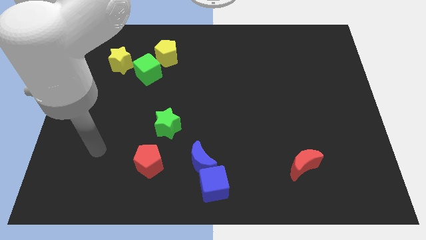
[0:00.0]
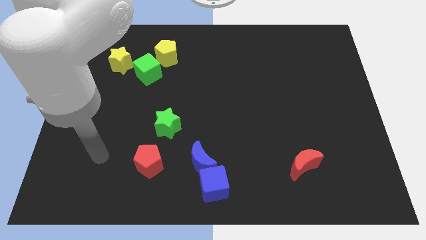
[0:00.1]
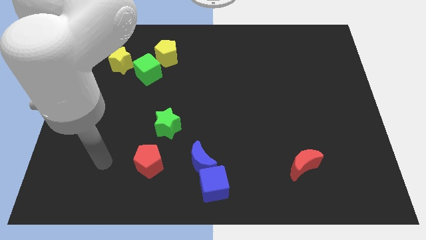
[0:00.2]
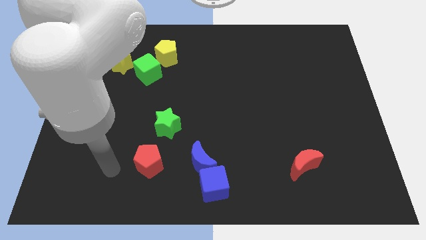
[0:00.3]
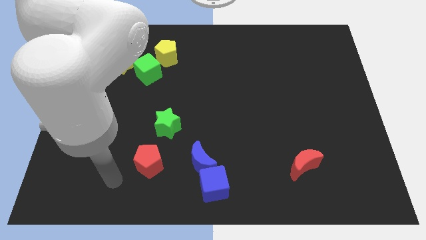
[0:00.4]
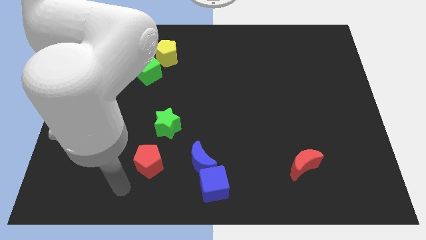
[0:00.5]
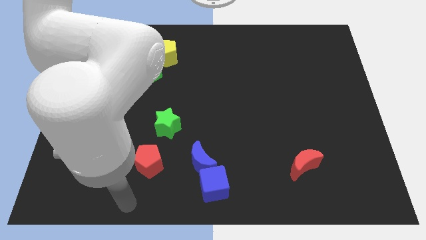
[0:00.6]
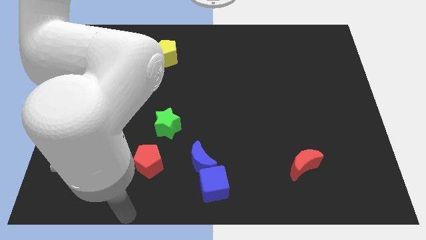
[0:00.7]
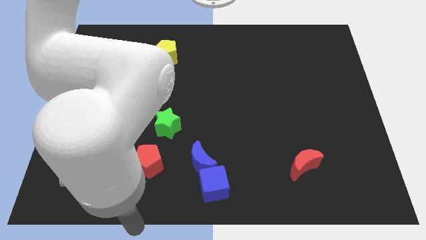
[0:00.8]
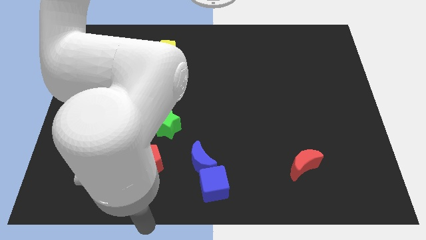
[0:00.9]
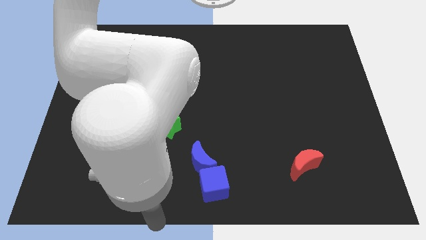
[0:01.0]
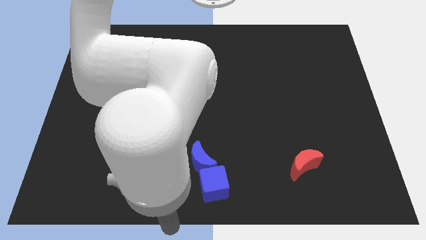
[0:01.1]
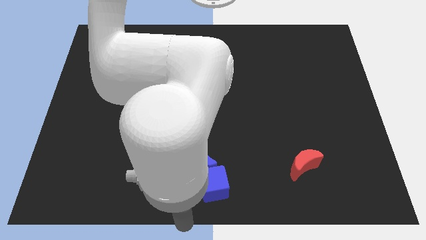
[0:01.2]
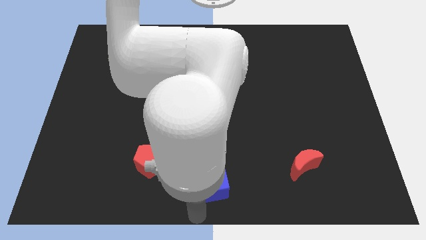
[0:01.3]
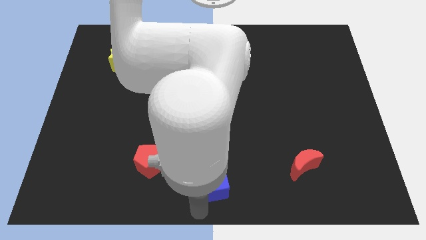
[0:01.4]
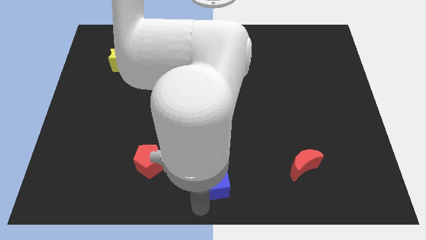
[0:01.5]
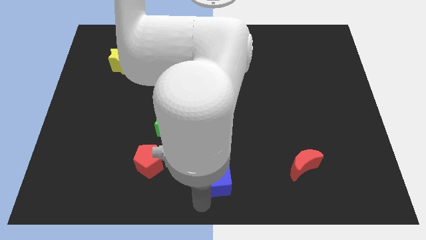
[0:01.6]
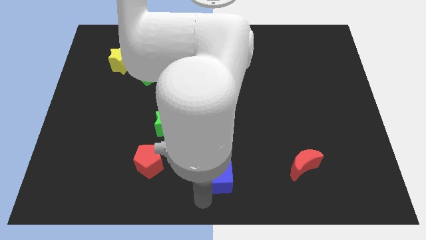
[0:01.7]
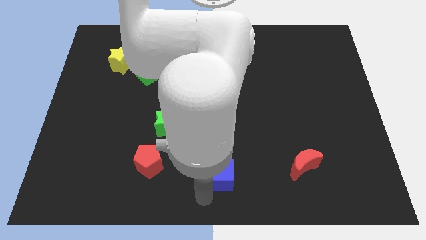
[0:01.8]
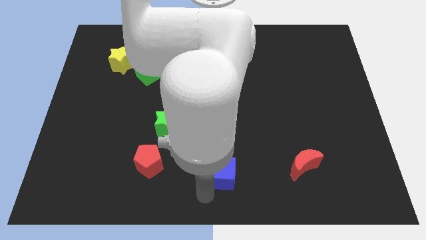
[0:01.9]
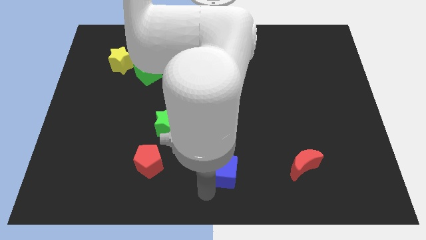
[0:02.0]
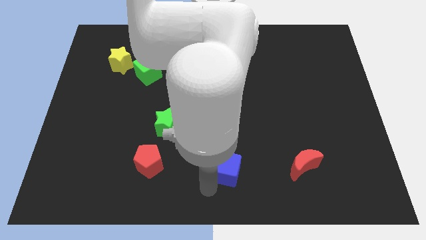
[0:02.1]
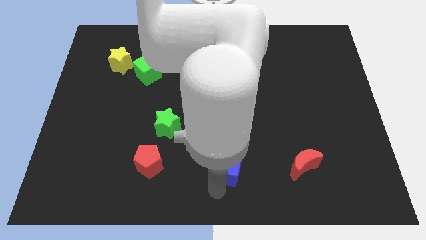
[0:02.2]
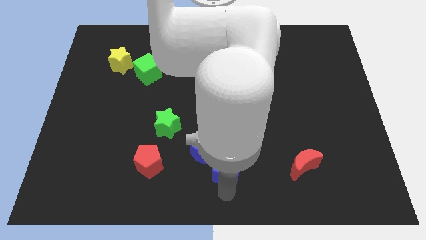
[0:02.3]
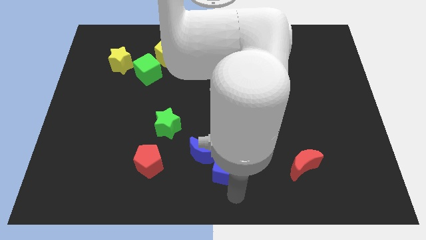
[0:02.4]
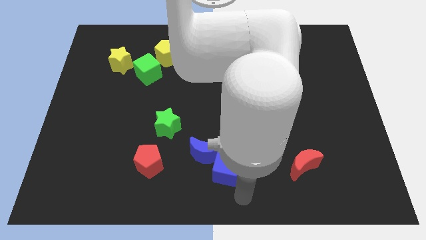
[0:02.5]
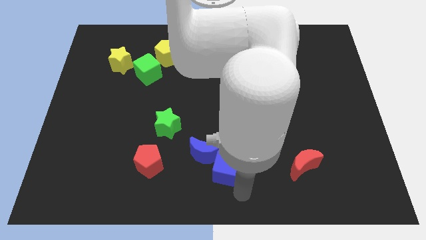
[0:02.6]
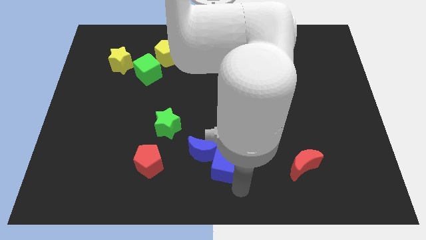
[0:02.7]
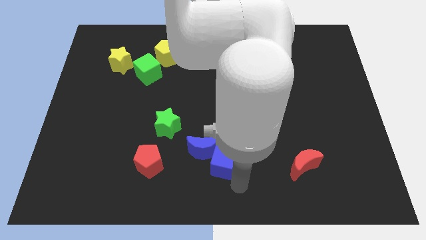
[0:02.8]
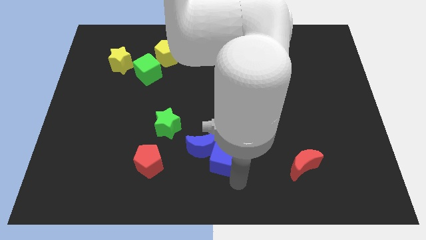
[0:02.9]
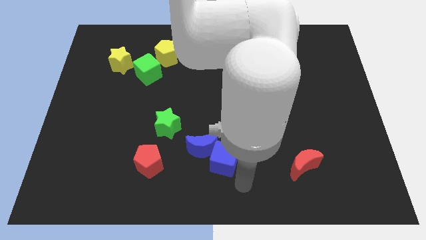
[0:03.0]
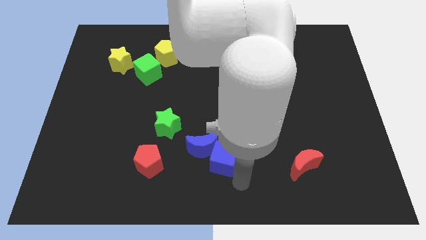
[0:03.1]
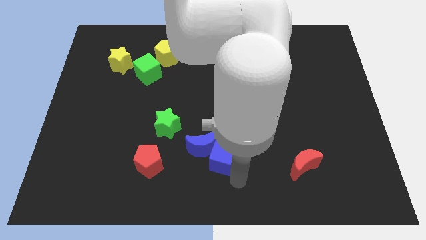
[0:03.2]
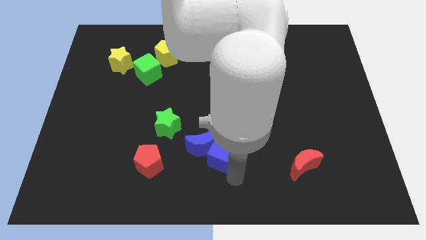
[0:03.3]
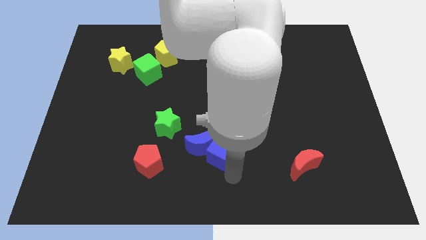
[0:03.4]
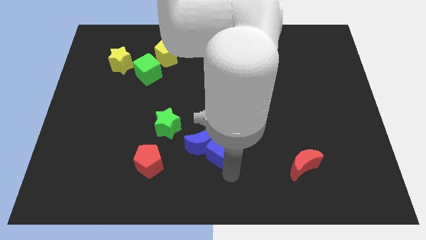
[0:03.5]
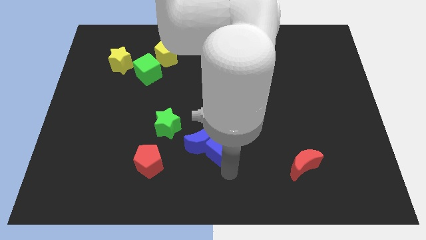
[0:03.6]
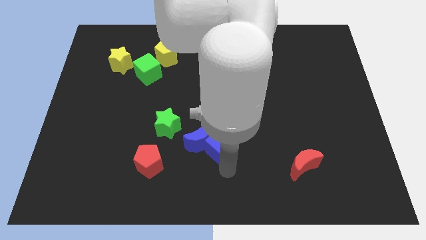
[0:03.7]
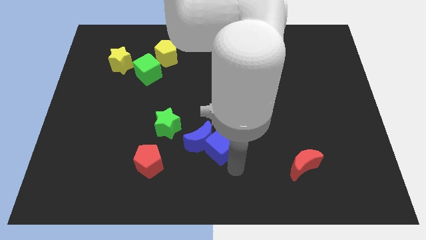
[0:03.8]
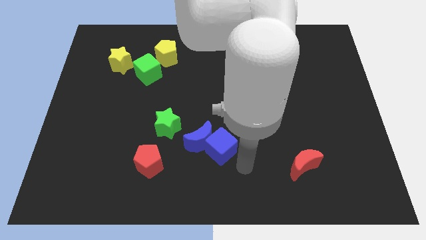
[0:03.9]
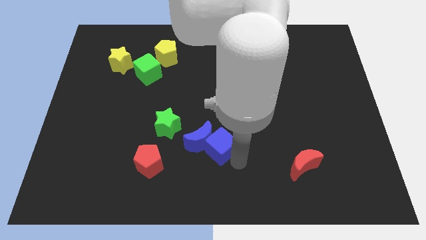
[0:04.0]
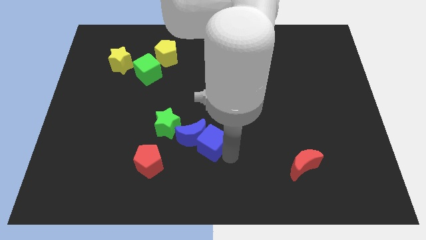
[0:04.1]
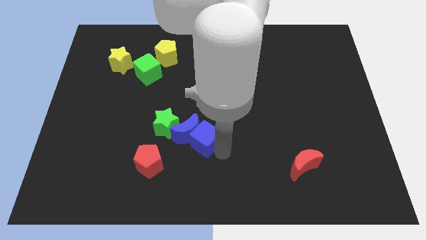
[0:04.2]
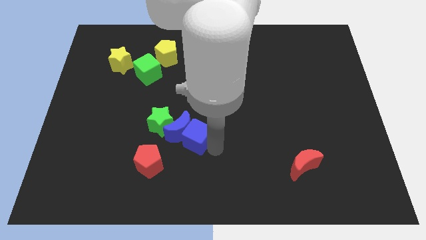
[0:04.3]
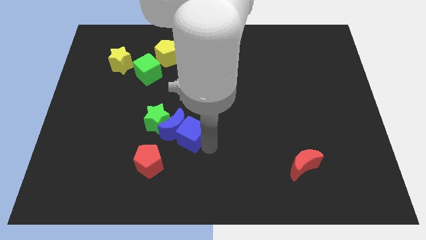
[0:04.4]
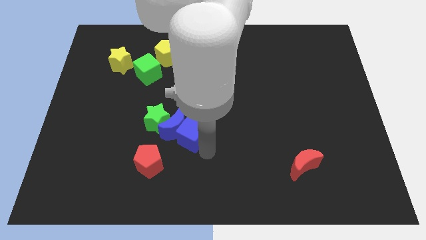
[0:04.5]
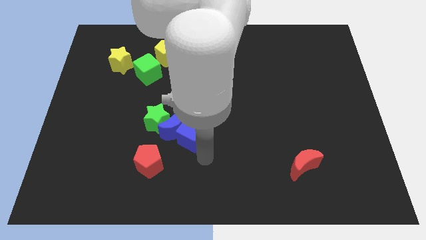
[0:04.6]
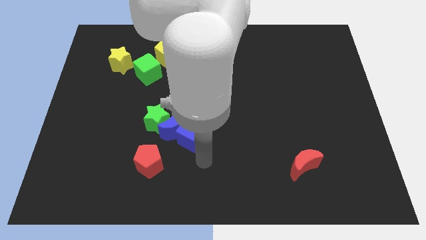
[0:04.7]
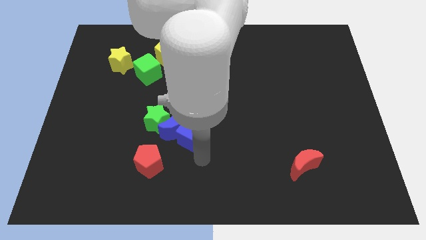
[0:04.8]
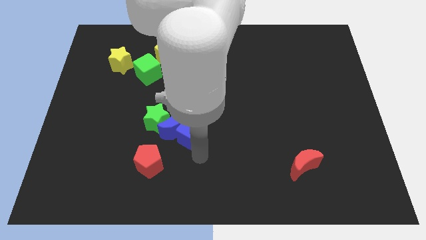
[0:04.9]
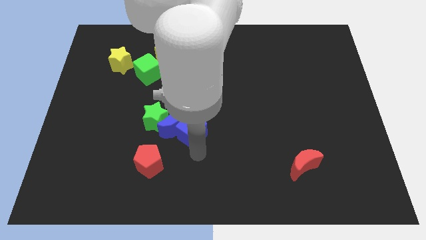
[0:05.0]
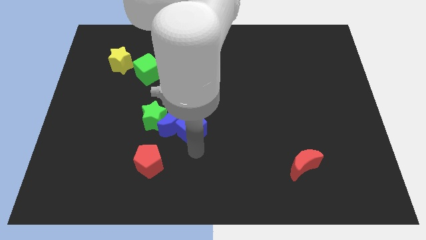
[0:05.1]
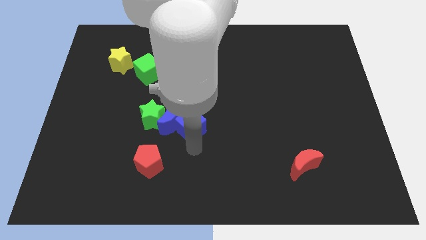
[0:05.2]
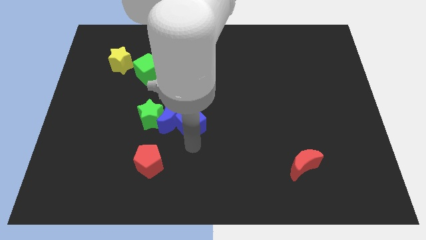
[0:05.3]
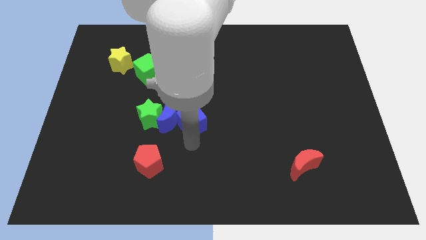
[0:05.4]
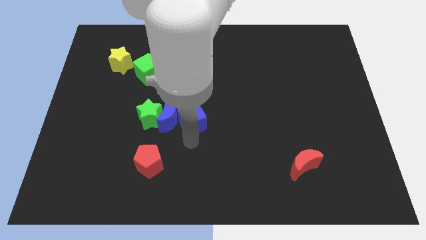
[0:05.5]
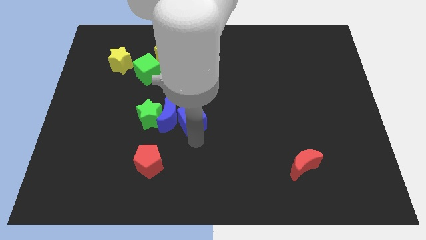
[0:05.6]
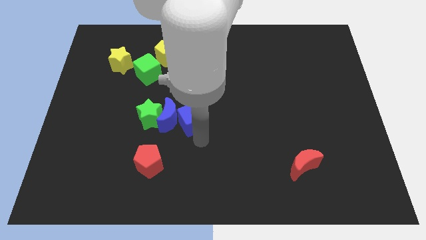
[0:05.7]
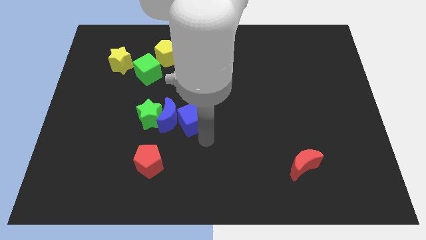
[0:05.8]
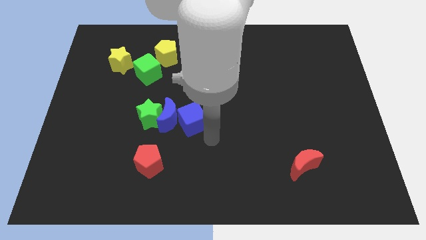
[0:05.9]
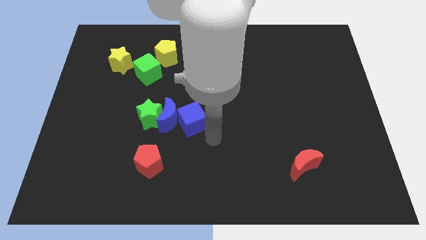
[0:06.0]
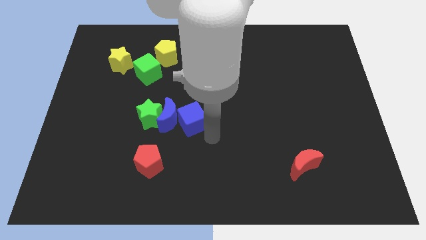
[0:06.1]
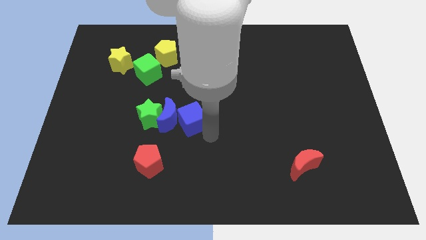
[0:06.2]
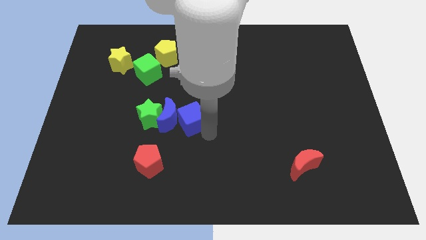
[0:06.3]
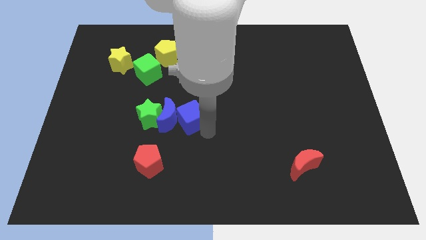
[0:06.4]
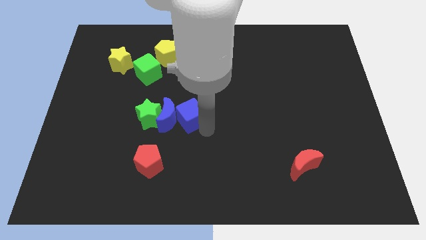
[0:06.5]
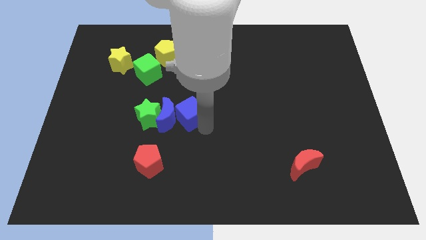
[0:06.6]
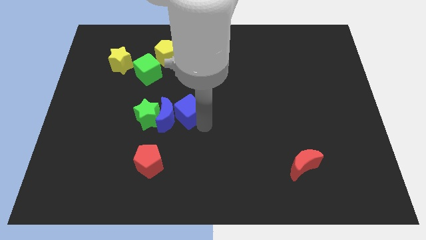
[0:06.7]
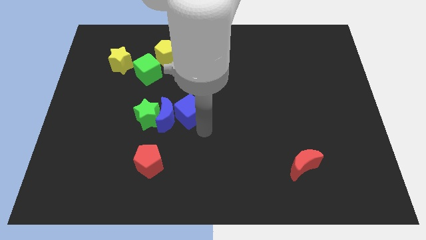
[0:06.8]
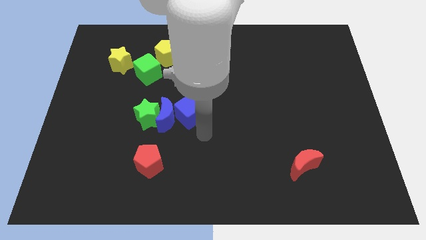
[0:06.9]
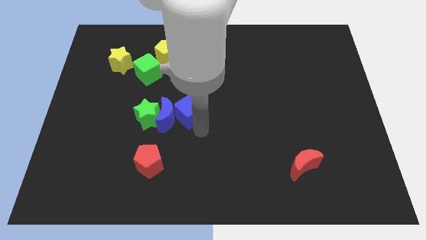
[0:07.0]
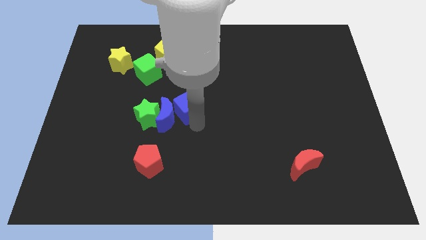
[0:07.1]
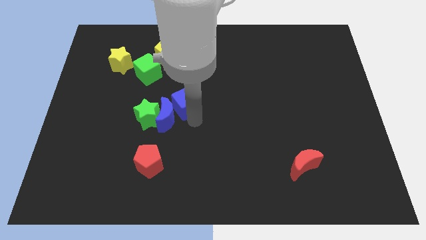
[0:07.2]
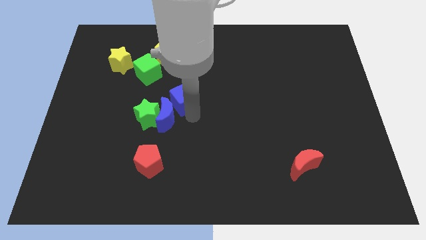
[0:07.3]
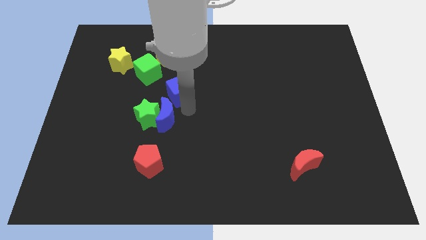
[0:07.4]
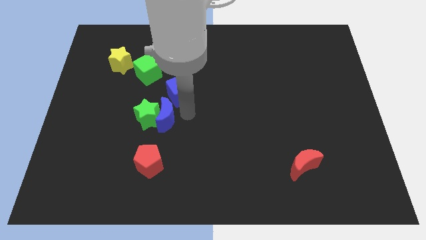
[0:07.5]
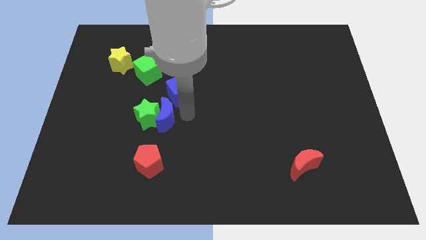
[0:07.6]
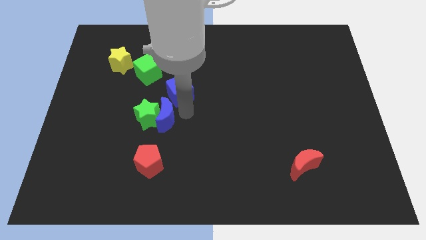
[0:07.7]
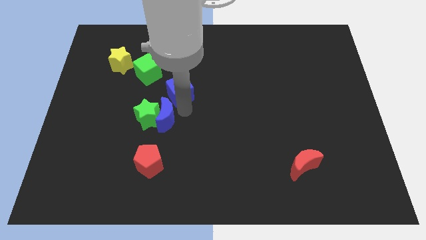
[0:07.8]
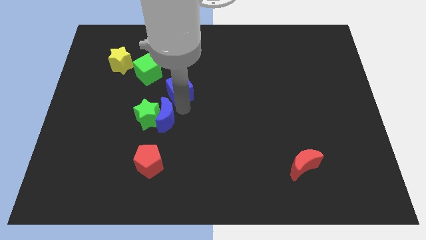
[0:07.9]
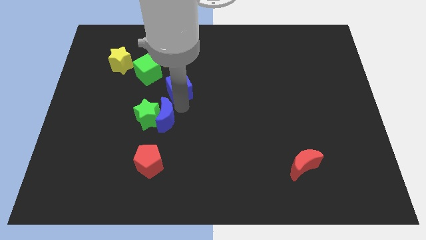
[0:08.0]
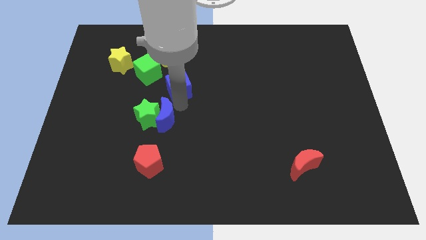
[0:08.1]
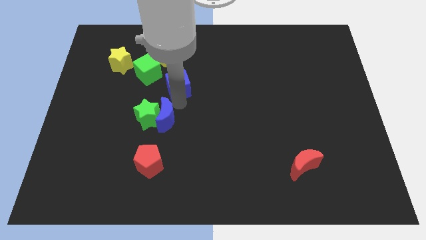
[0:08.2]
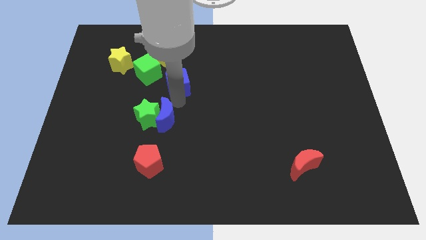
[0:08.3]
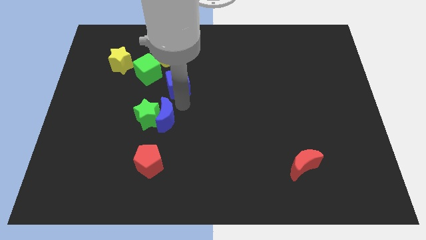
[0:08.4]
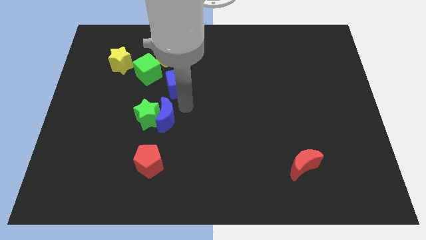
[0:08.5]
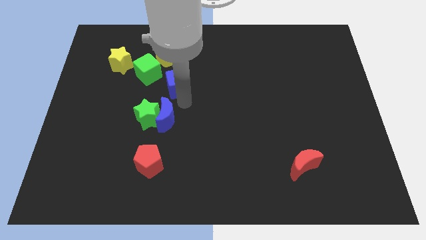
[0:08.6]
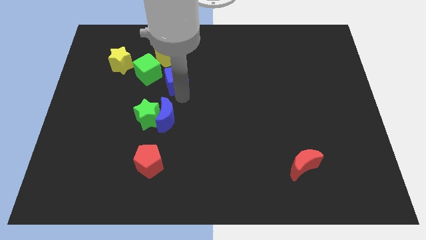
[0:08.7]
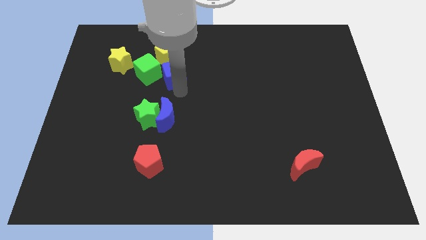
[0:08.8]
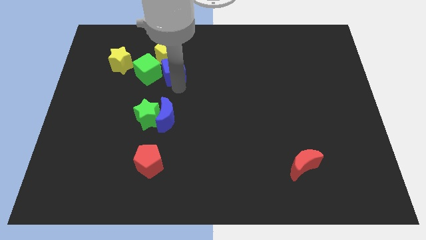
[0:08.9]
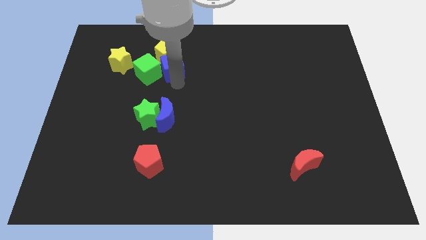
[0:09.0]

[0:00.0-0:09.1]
push the blue cube next to the yellow pentagon
